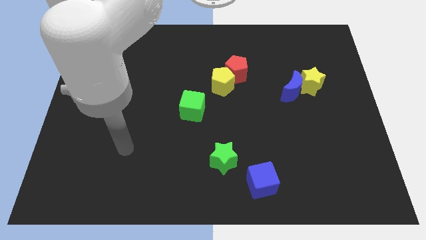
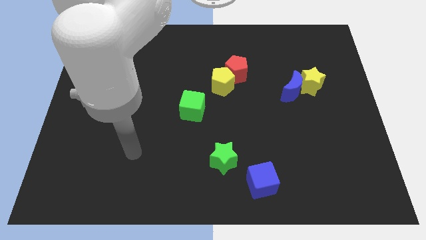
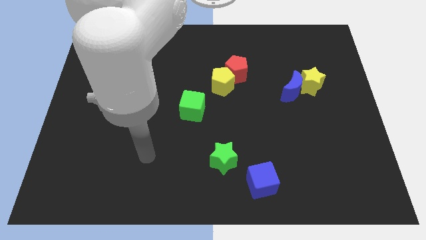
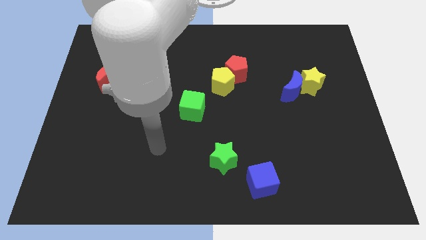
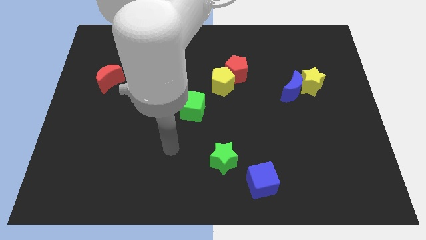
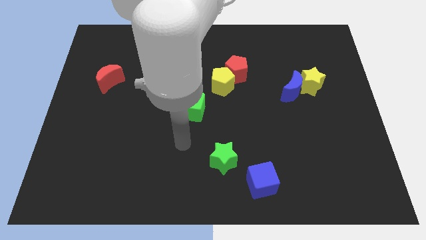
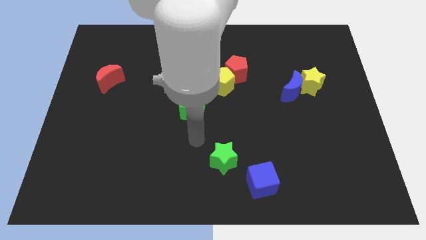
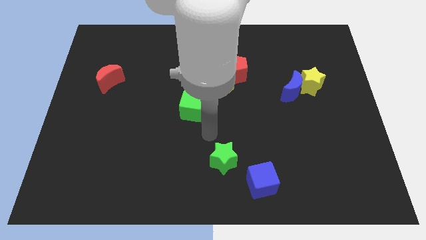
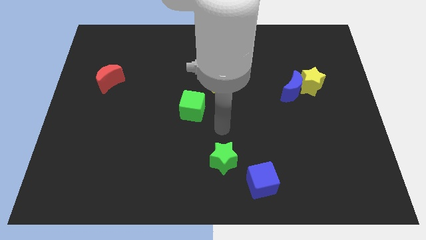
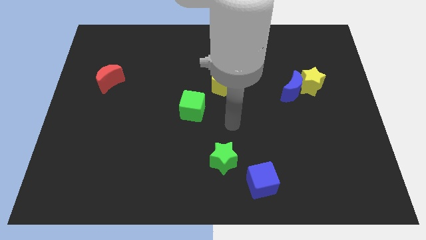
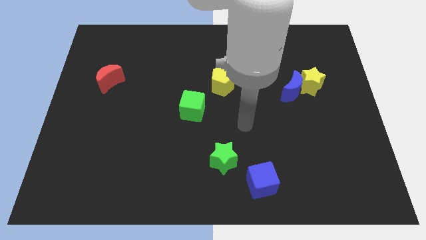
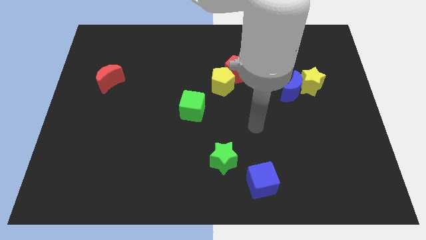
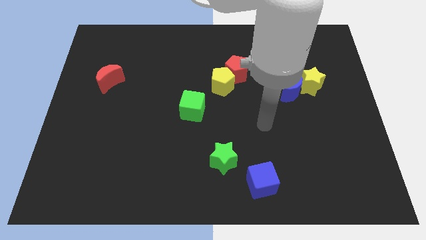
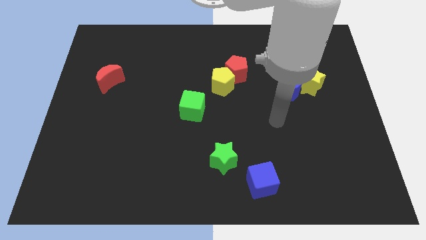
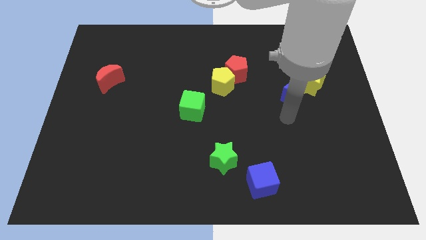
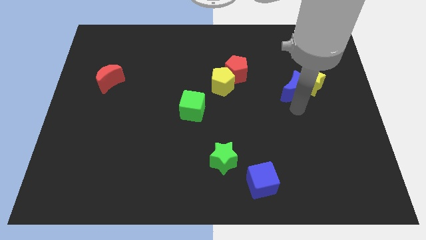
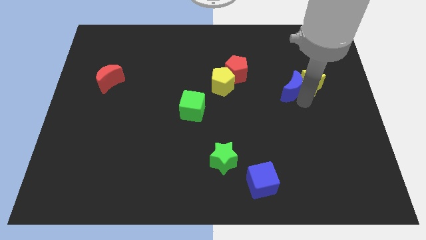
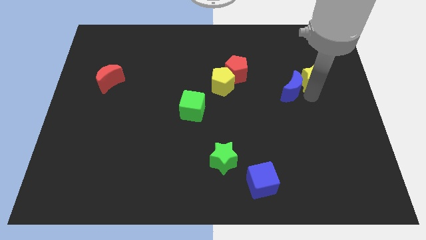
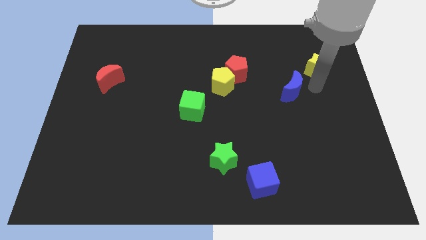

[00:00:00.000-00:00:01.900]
separate the blue moon from the yellow star

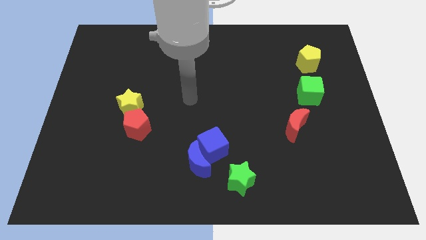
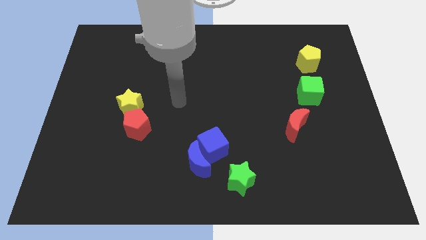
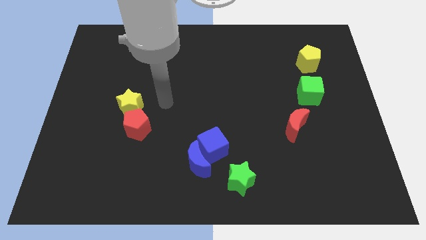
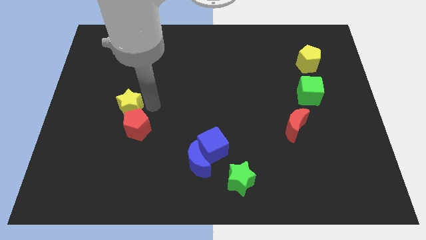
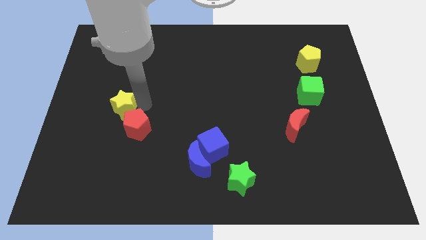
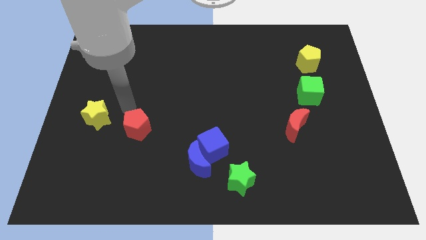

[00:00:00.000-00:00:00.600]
move the red pentagon away from the yellow star

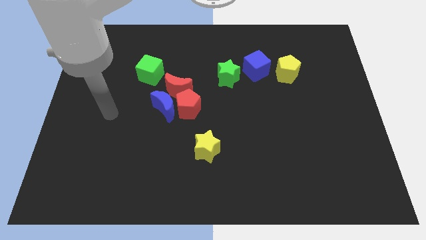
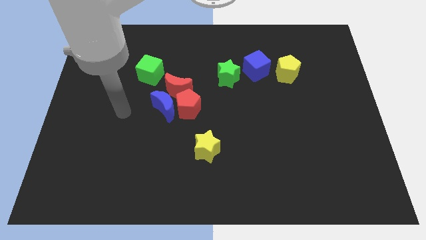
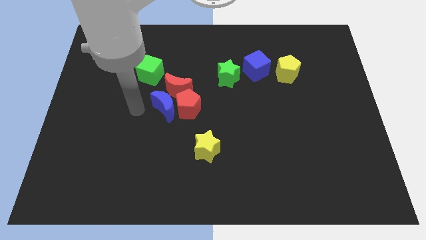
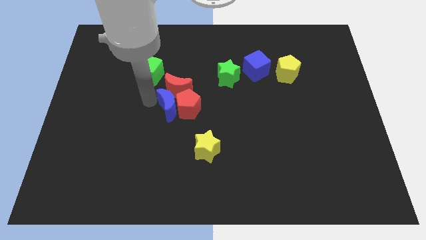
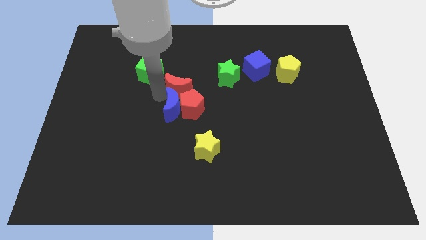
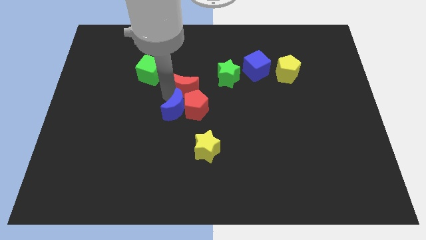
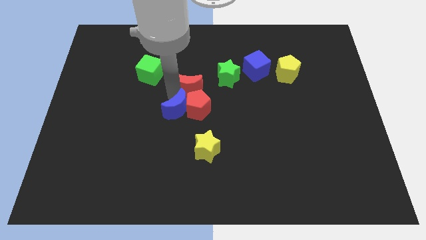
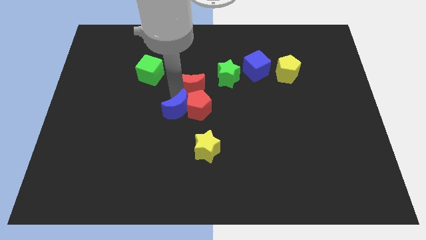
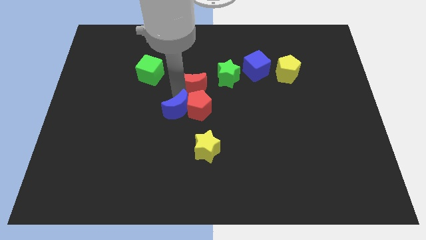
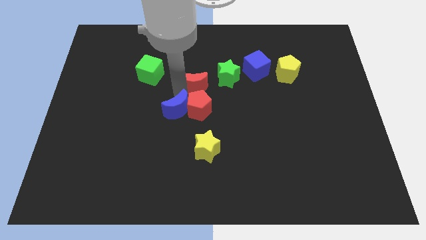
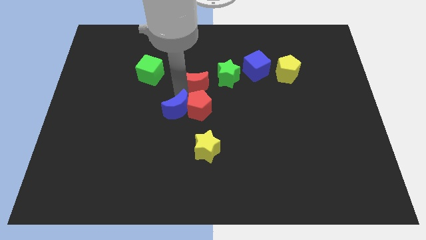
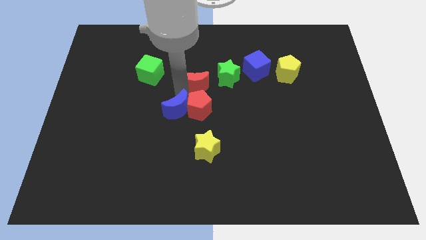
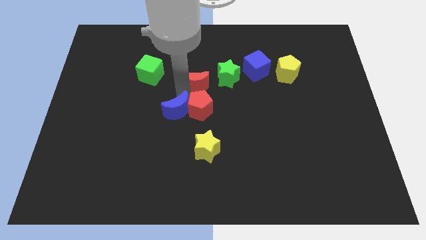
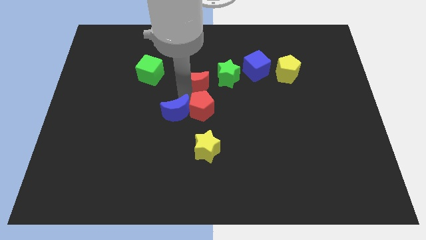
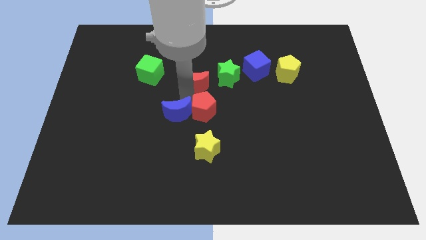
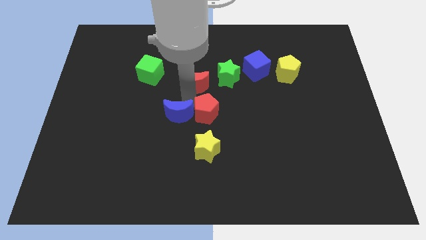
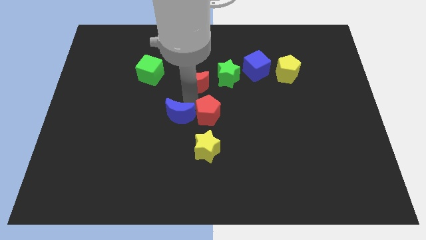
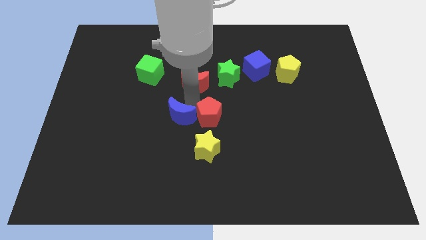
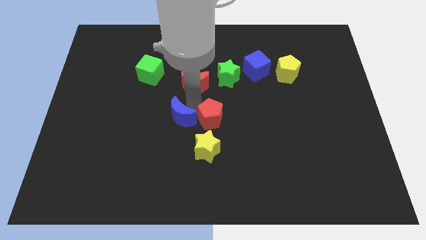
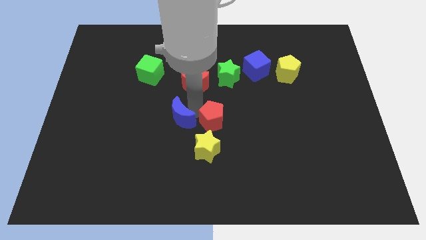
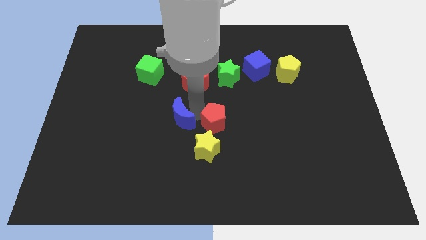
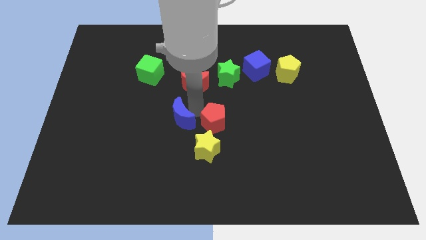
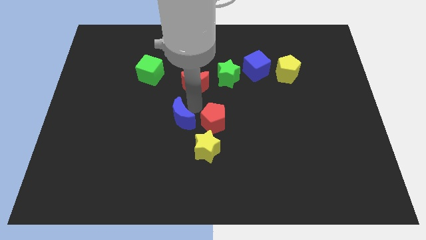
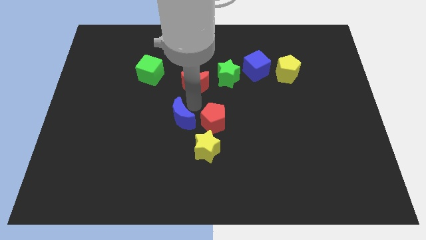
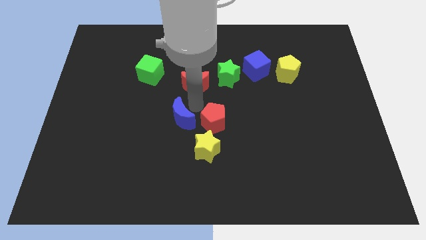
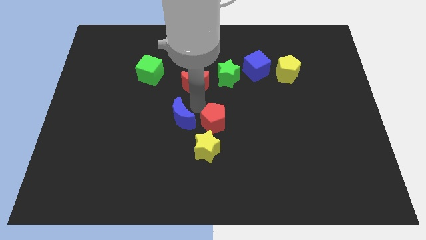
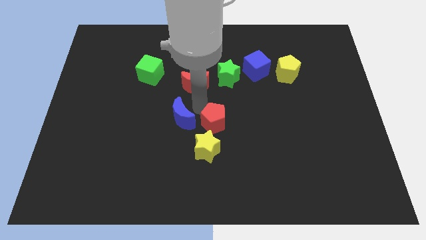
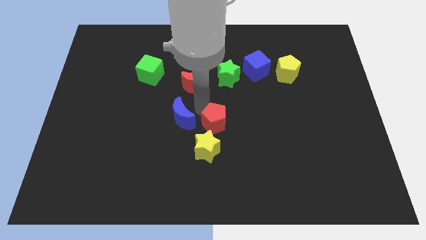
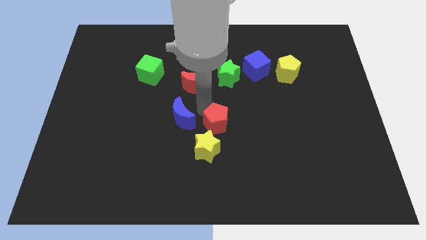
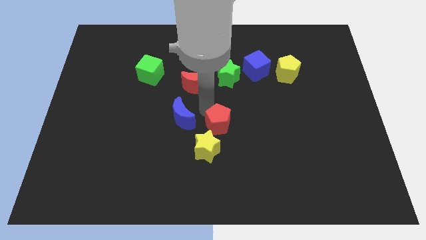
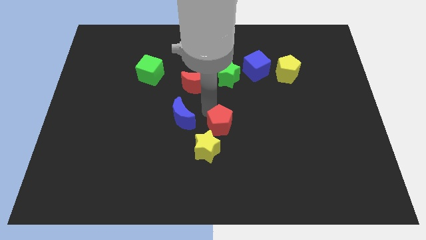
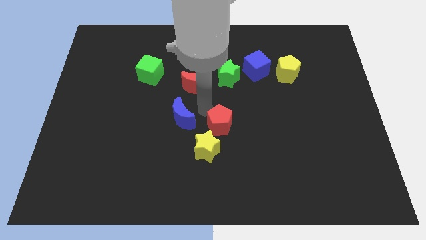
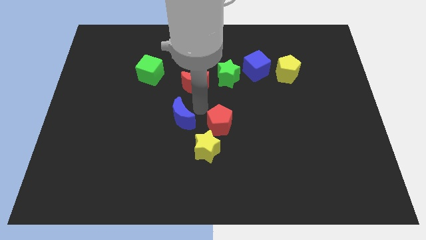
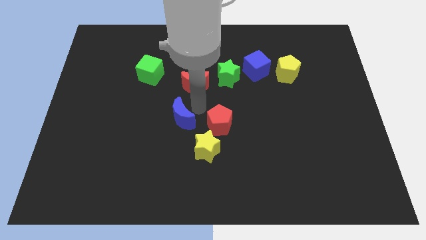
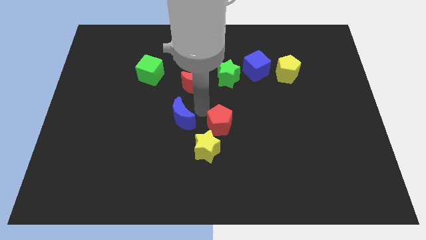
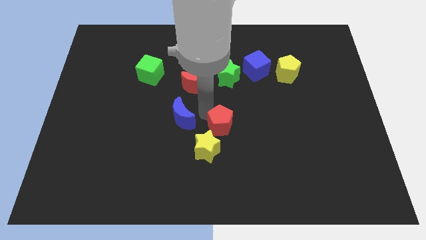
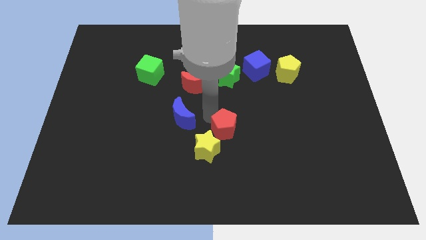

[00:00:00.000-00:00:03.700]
move the red pentagon away from the blue moon and red moon

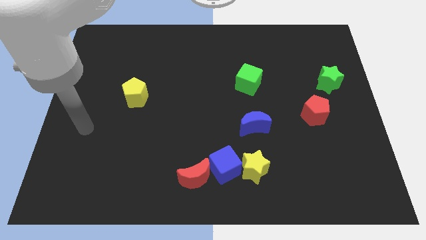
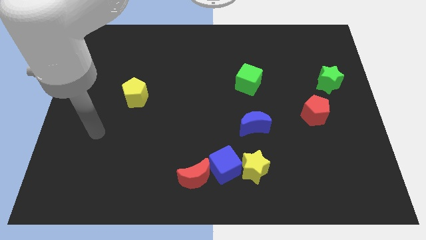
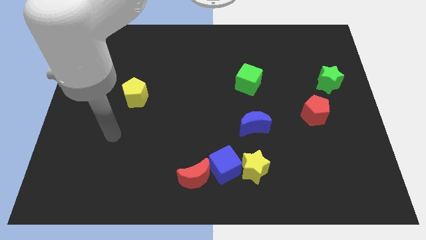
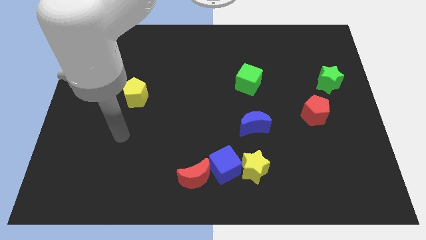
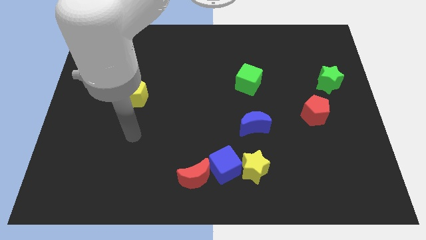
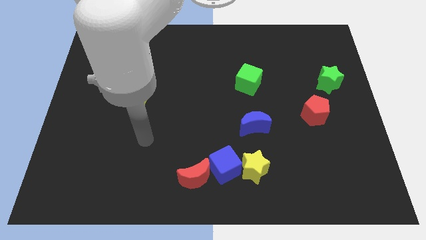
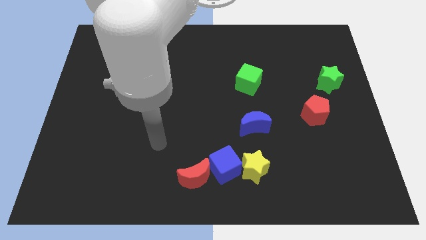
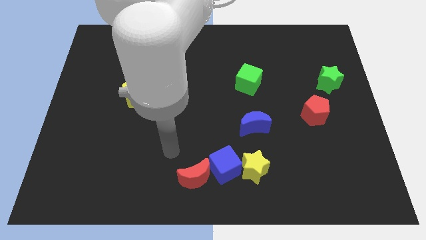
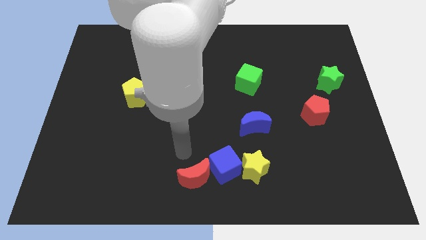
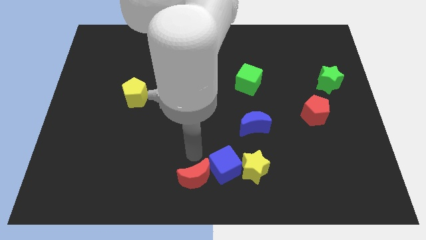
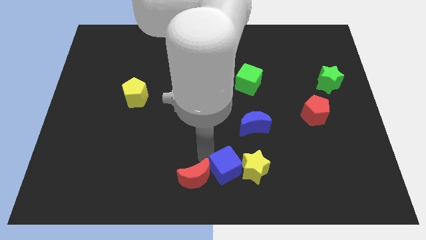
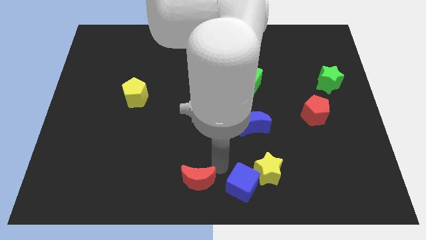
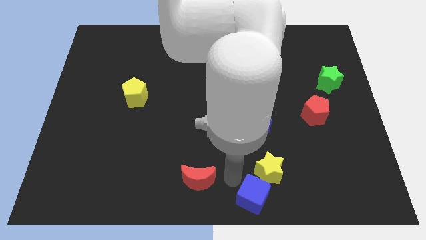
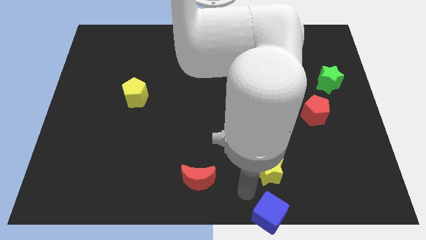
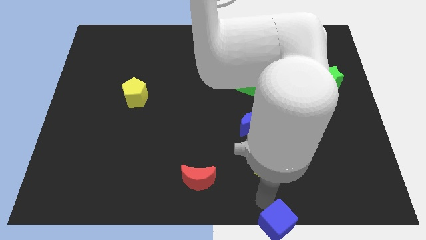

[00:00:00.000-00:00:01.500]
pull the yellow star apart from the blue cube

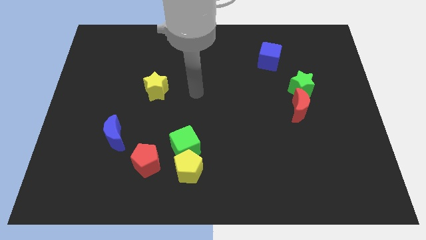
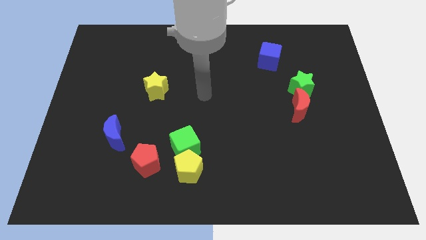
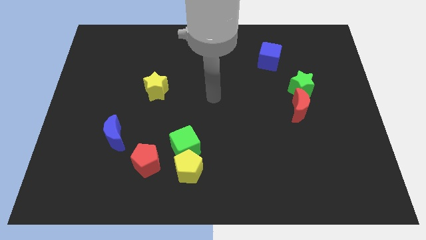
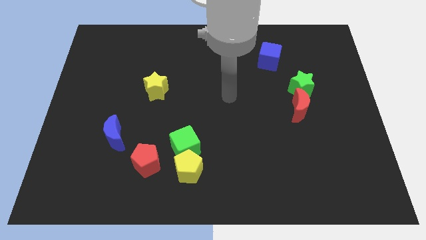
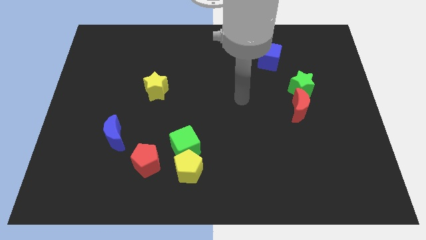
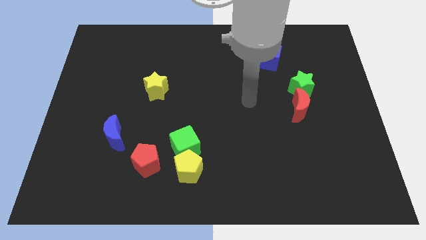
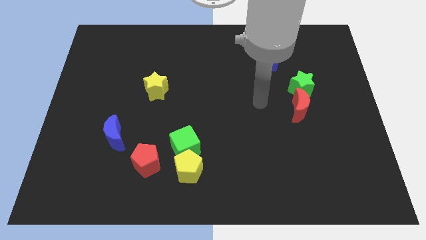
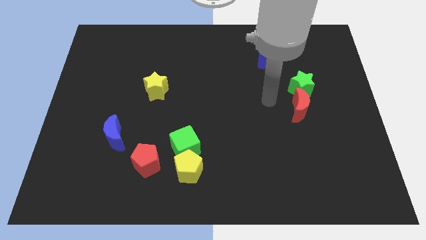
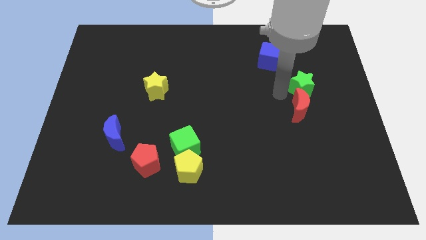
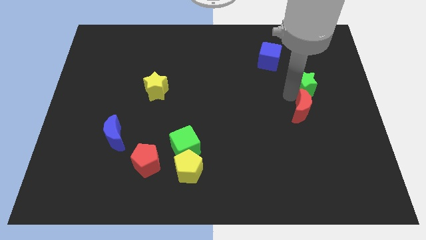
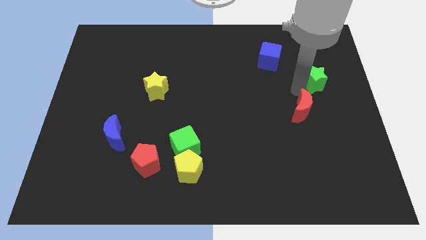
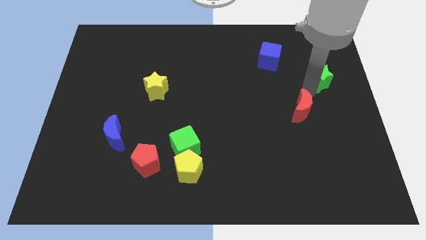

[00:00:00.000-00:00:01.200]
pull the red moon apart from the green star

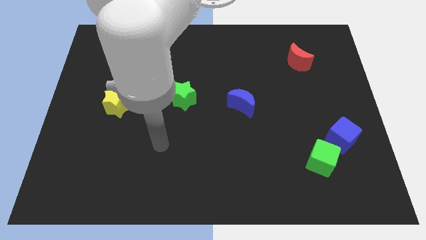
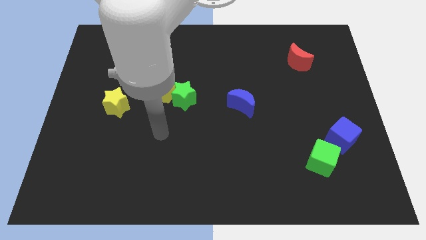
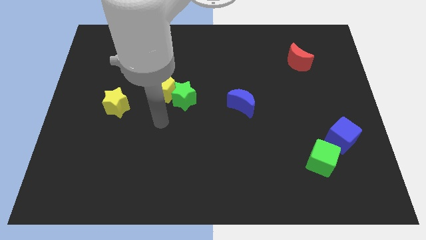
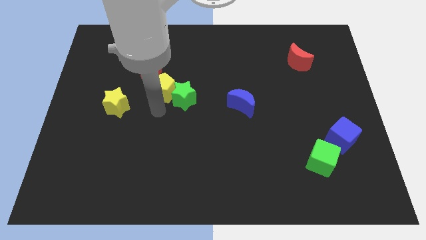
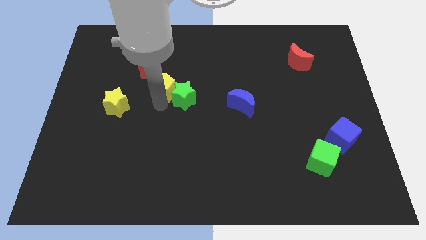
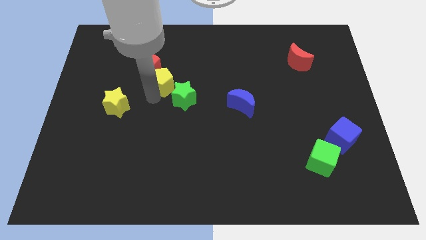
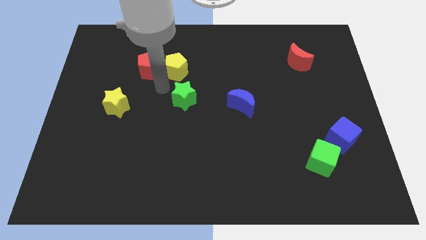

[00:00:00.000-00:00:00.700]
move the green star away from the yellow pentagon
